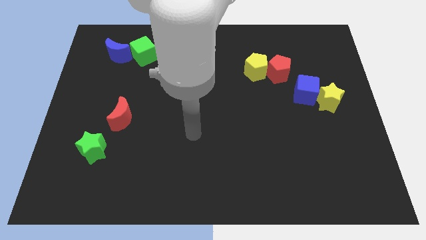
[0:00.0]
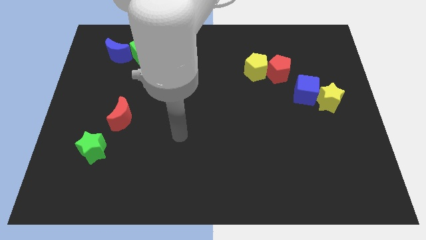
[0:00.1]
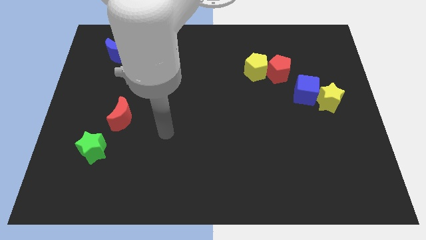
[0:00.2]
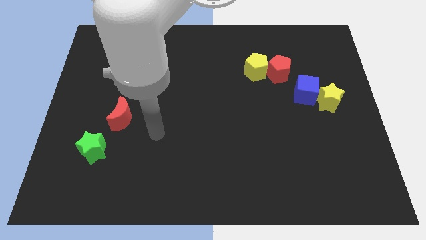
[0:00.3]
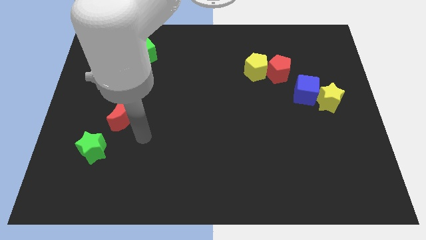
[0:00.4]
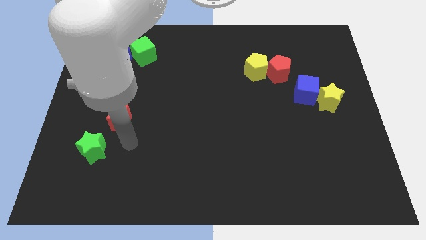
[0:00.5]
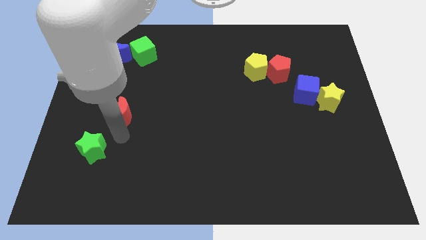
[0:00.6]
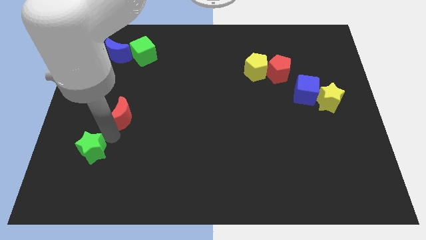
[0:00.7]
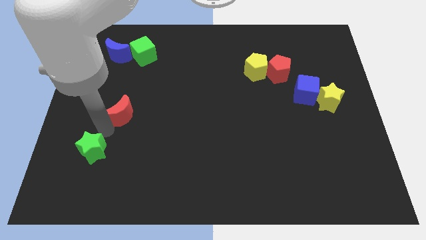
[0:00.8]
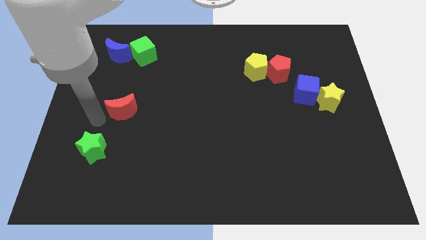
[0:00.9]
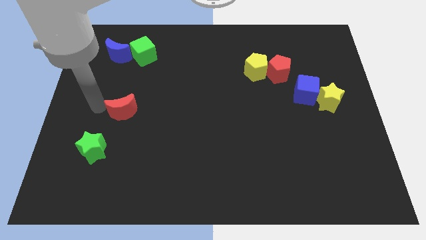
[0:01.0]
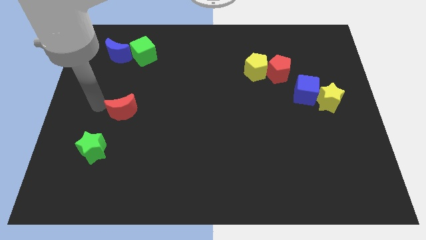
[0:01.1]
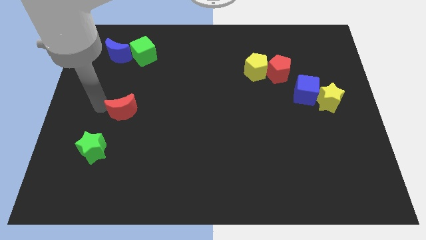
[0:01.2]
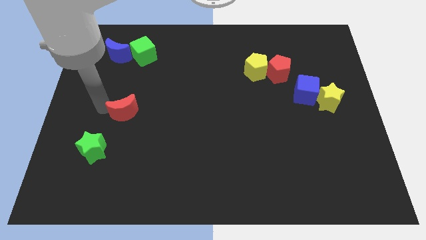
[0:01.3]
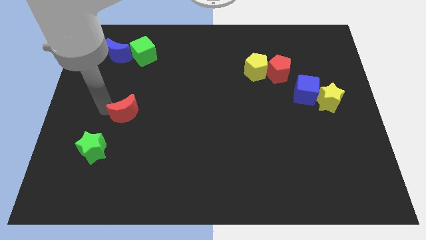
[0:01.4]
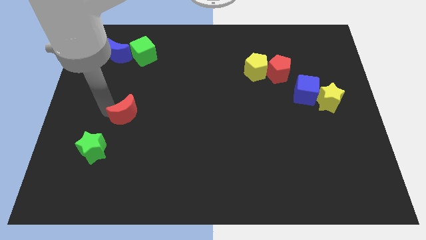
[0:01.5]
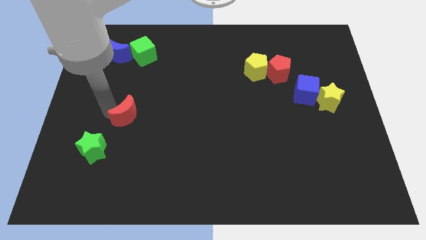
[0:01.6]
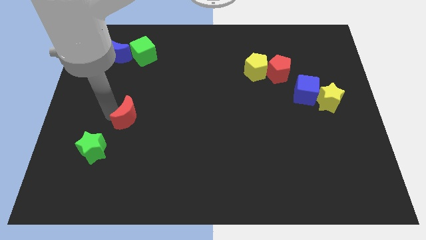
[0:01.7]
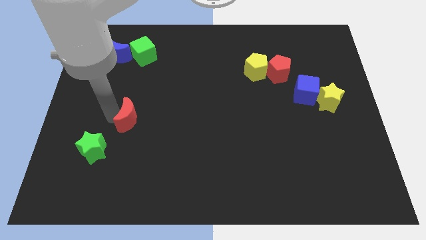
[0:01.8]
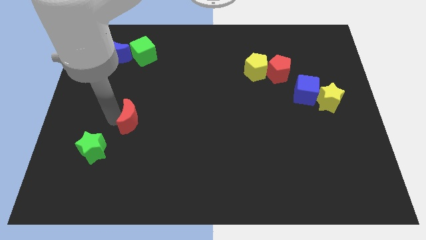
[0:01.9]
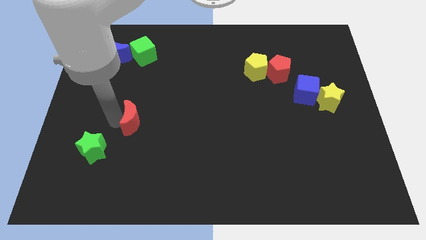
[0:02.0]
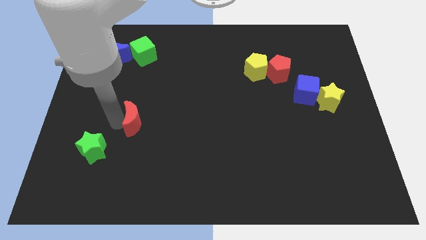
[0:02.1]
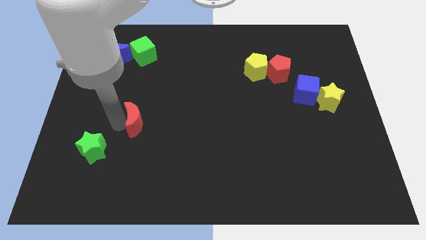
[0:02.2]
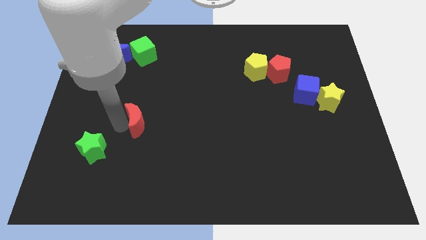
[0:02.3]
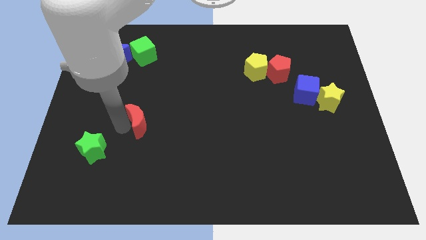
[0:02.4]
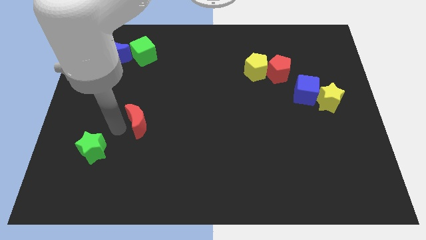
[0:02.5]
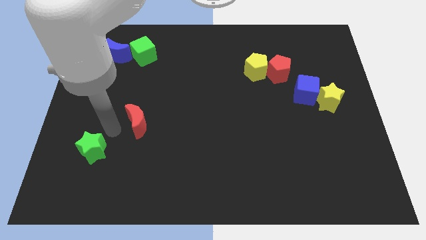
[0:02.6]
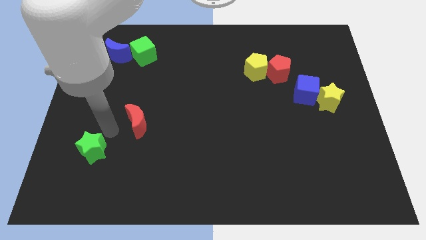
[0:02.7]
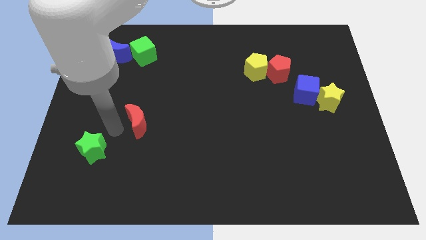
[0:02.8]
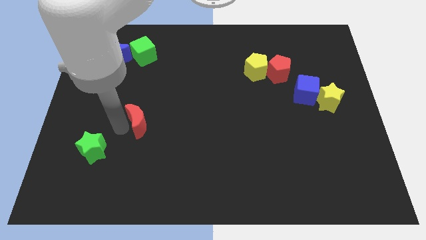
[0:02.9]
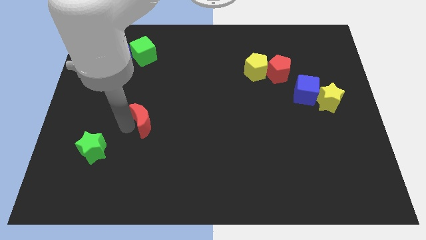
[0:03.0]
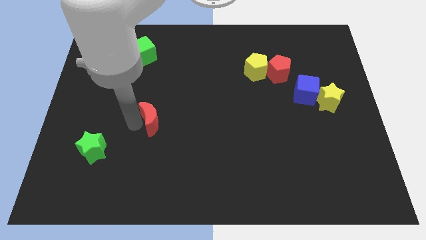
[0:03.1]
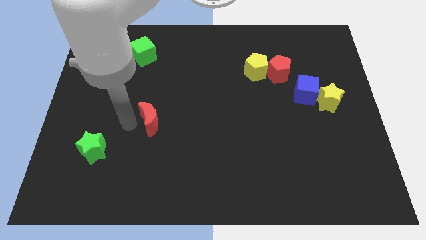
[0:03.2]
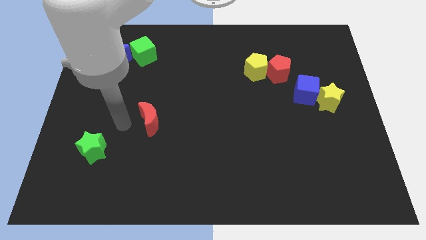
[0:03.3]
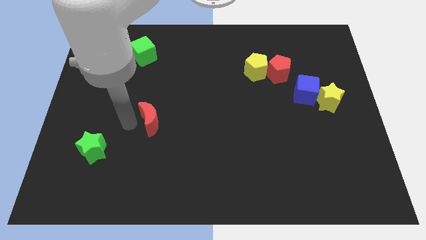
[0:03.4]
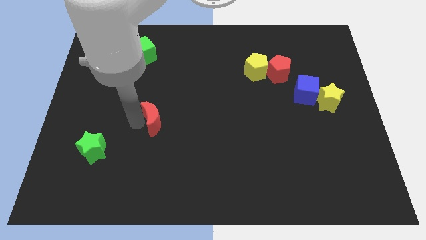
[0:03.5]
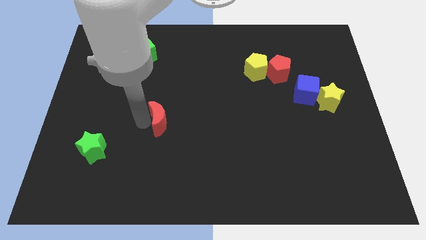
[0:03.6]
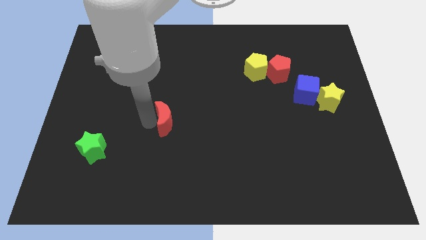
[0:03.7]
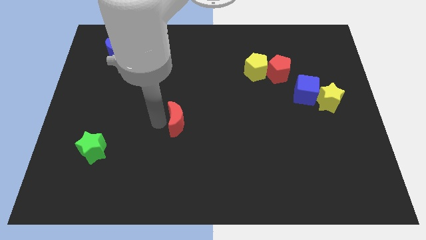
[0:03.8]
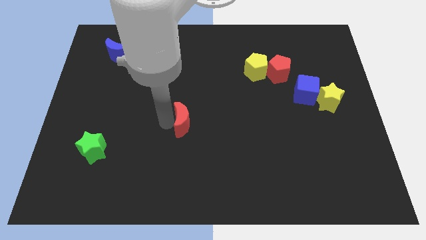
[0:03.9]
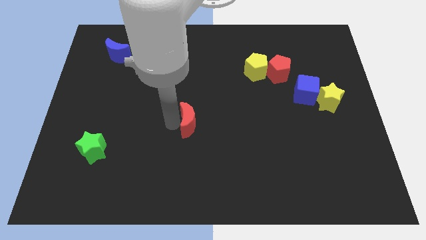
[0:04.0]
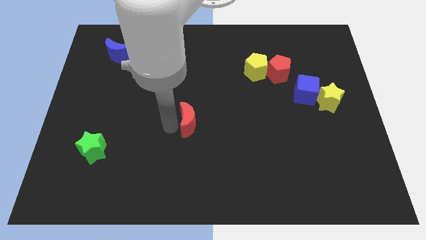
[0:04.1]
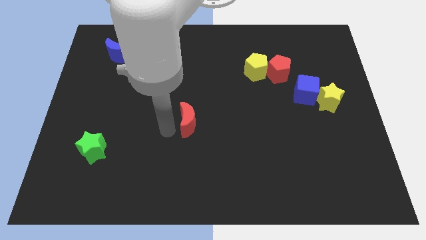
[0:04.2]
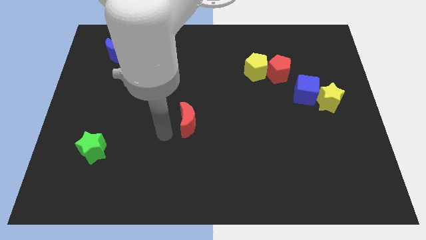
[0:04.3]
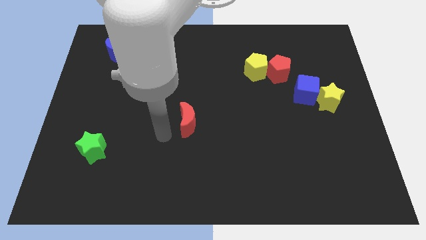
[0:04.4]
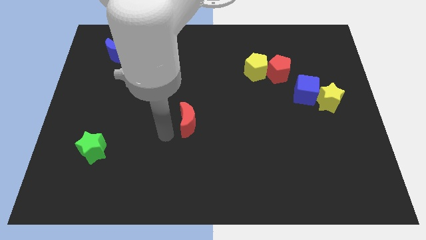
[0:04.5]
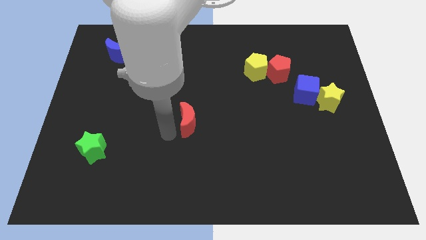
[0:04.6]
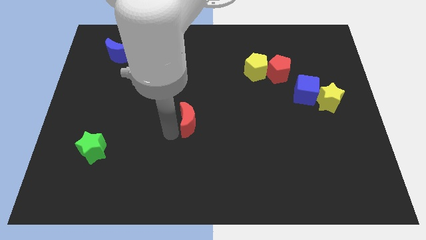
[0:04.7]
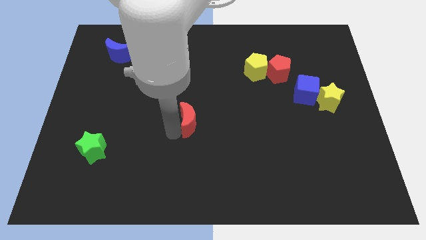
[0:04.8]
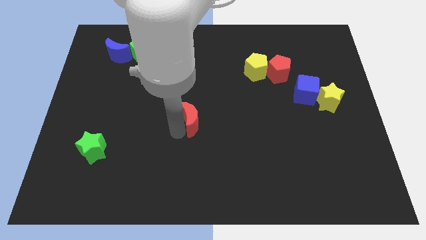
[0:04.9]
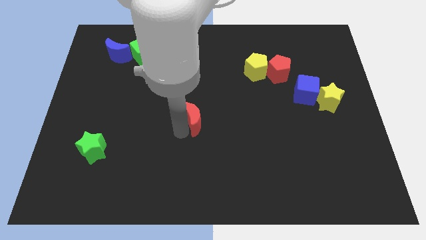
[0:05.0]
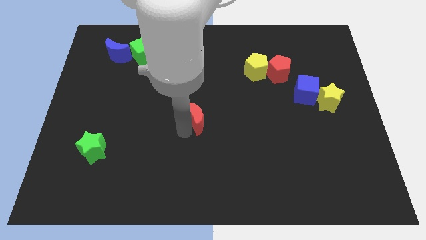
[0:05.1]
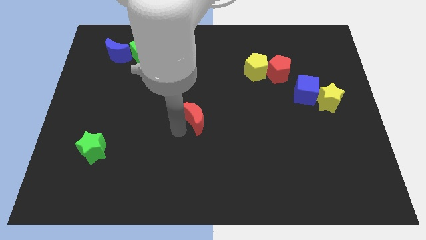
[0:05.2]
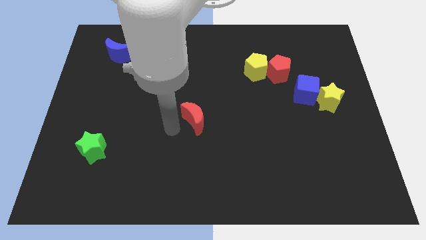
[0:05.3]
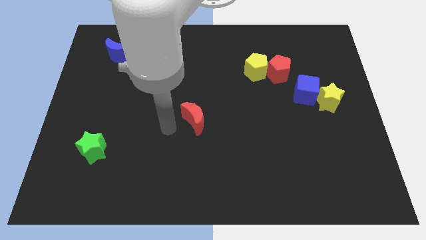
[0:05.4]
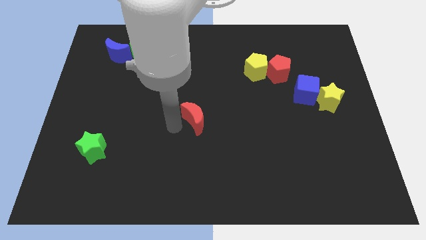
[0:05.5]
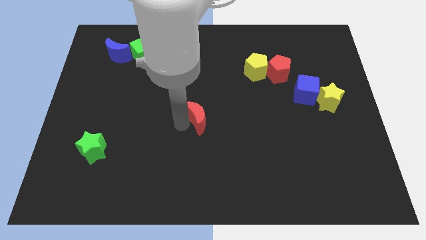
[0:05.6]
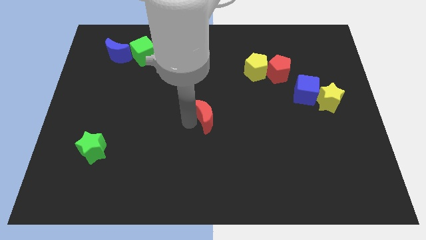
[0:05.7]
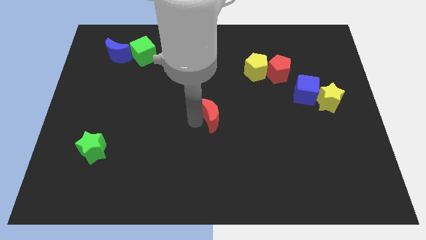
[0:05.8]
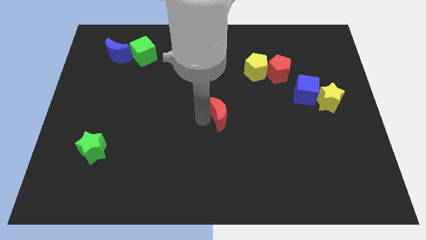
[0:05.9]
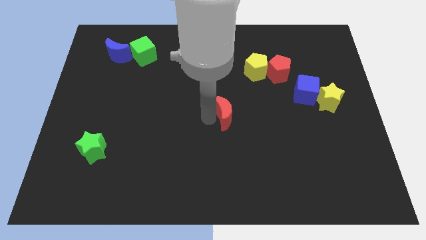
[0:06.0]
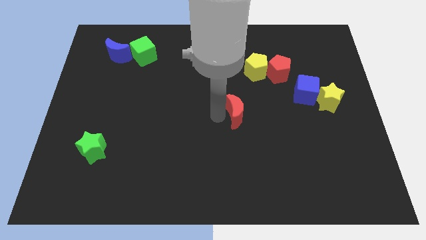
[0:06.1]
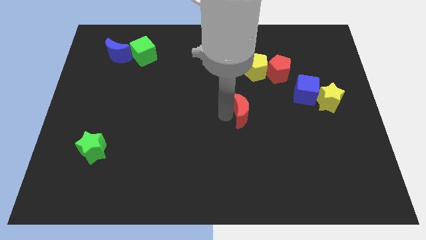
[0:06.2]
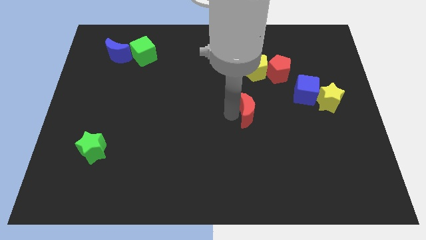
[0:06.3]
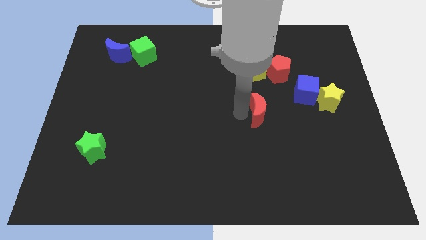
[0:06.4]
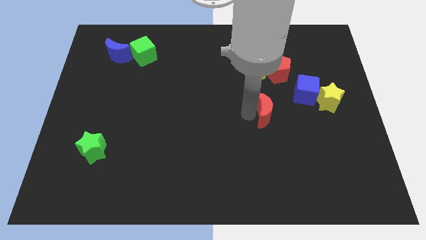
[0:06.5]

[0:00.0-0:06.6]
slide the red moon to the bottom left side of the blue cube

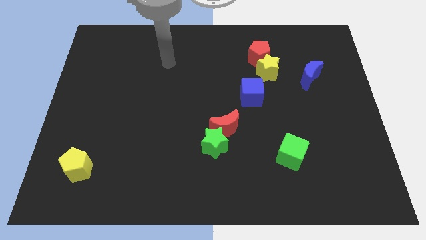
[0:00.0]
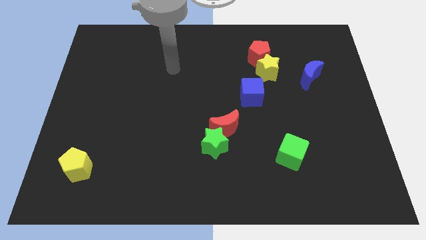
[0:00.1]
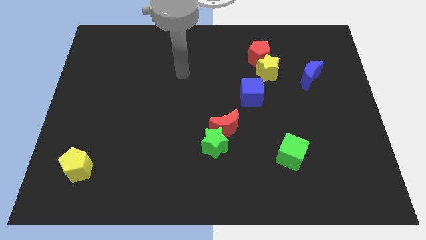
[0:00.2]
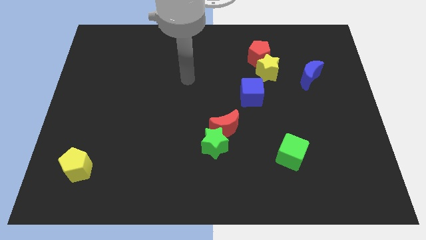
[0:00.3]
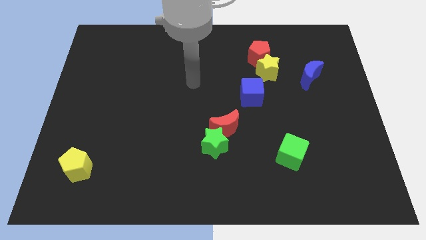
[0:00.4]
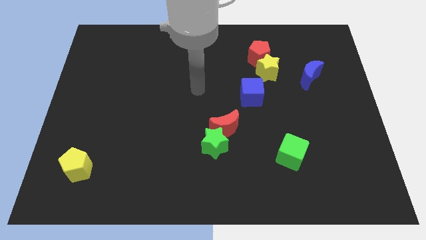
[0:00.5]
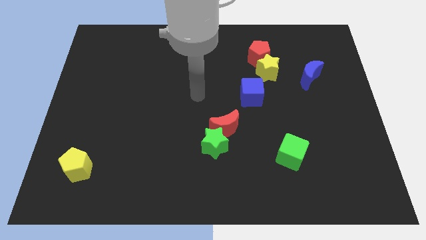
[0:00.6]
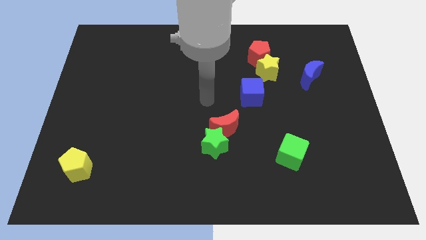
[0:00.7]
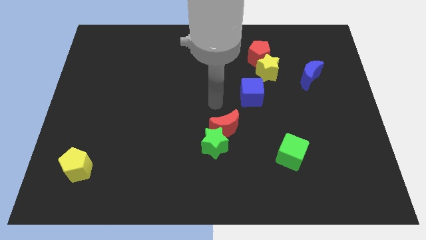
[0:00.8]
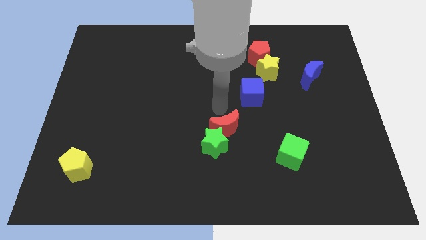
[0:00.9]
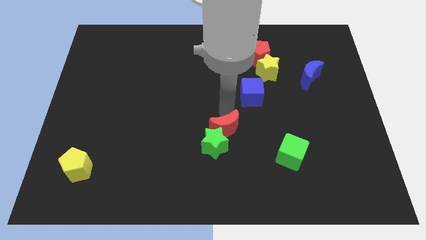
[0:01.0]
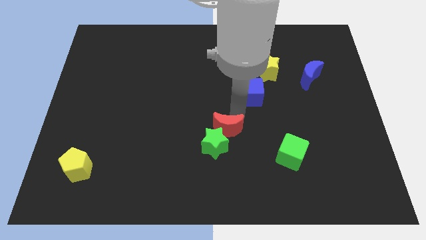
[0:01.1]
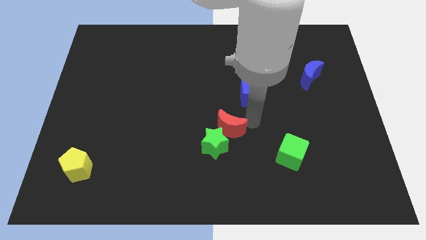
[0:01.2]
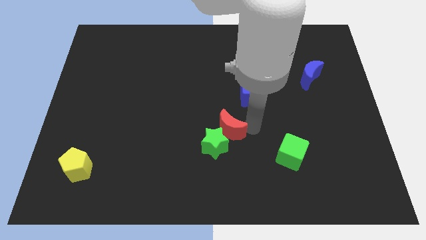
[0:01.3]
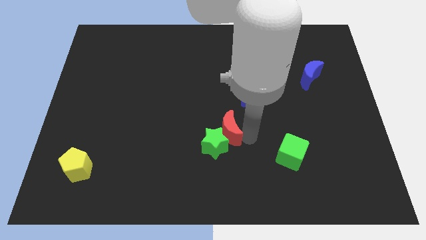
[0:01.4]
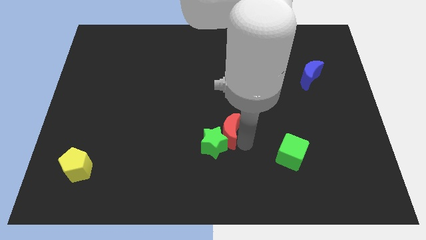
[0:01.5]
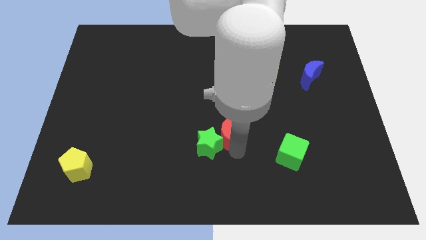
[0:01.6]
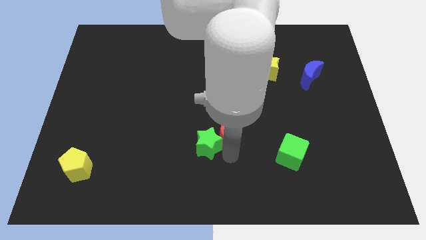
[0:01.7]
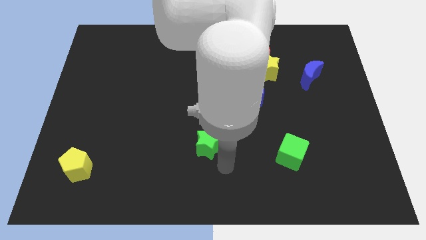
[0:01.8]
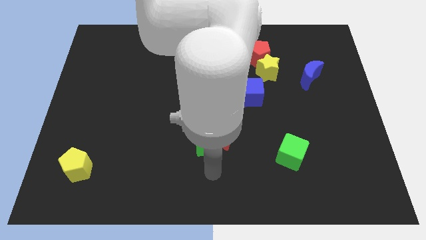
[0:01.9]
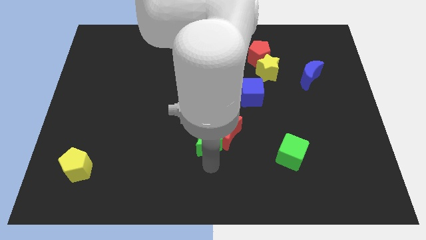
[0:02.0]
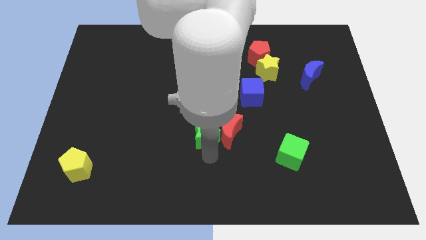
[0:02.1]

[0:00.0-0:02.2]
move the green star to the top left side of the red moon
